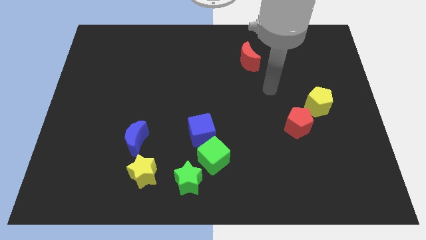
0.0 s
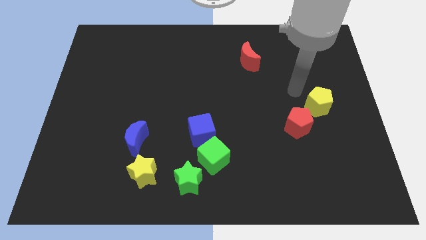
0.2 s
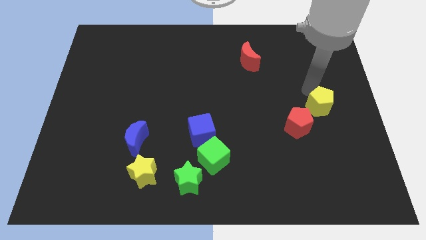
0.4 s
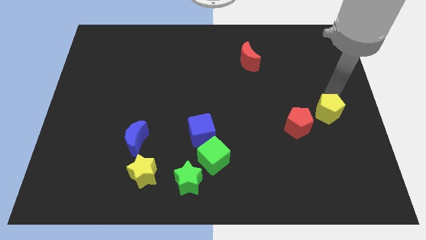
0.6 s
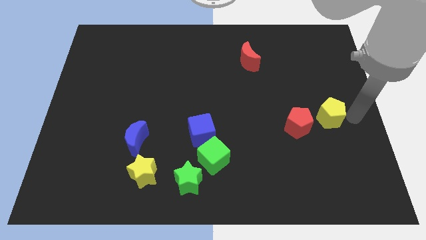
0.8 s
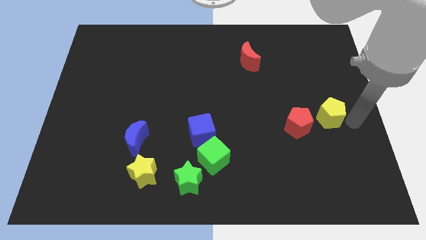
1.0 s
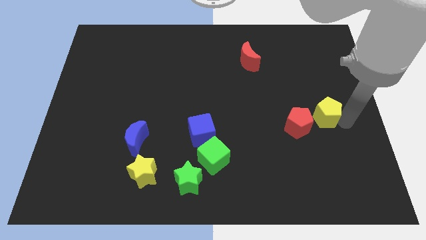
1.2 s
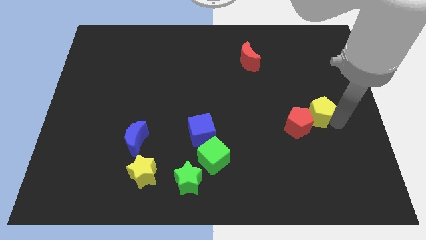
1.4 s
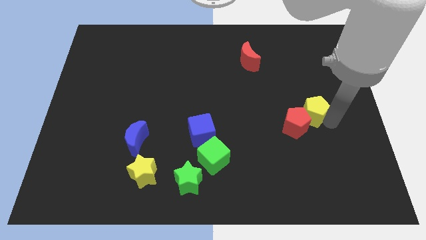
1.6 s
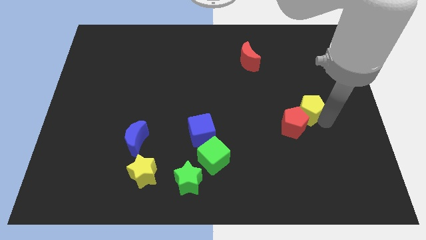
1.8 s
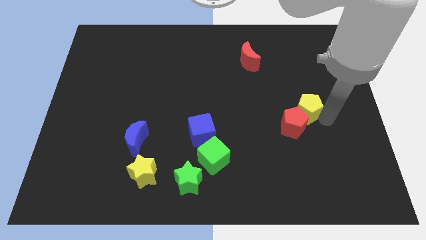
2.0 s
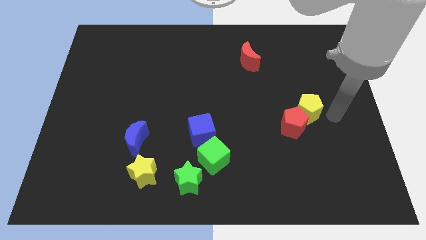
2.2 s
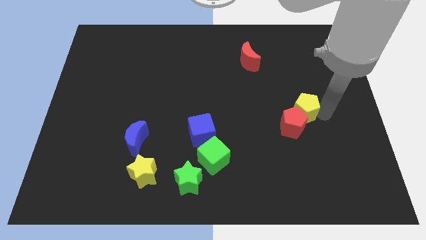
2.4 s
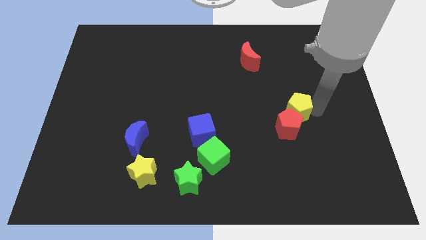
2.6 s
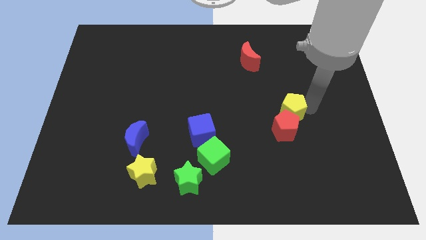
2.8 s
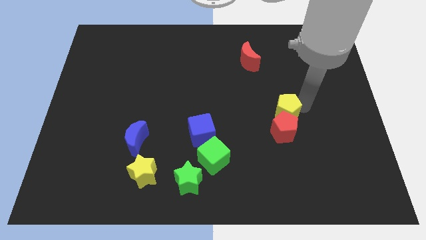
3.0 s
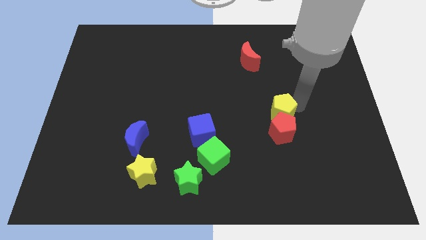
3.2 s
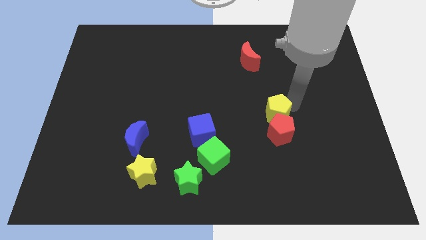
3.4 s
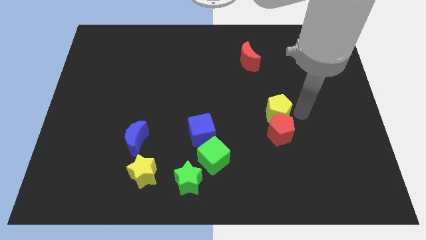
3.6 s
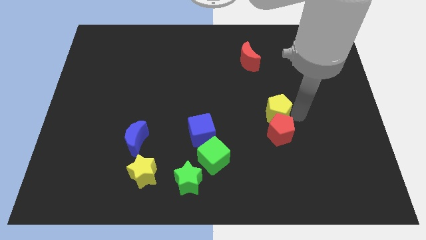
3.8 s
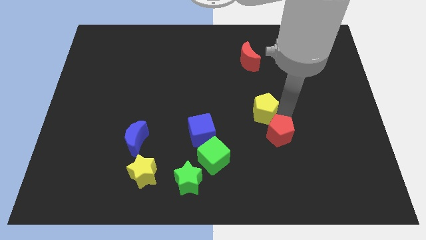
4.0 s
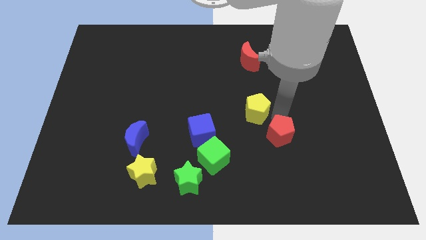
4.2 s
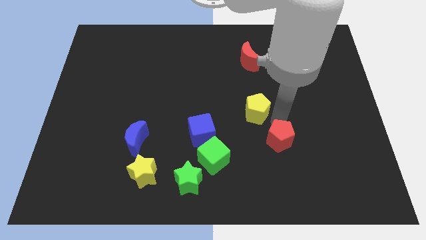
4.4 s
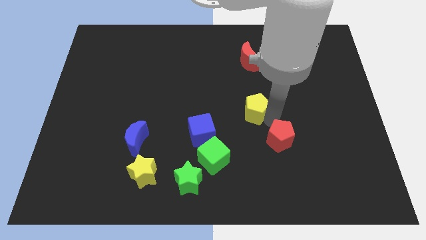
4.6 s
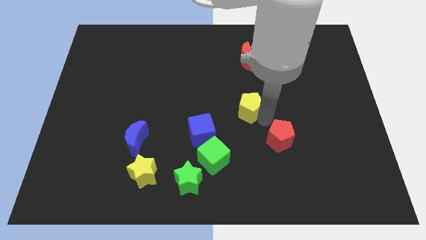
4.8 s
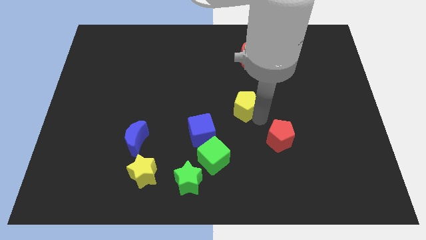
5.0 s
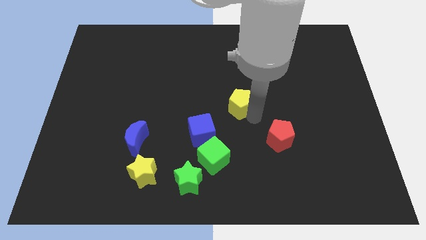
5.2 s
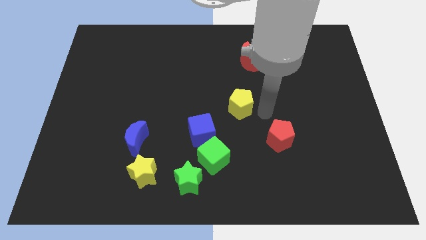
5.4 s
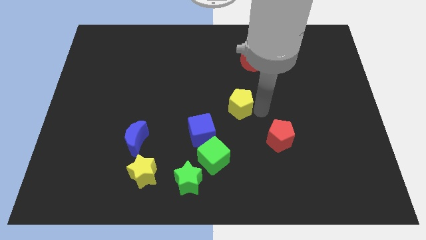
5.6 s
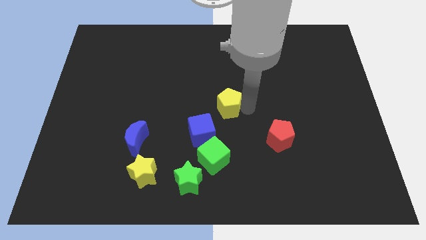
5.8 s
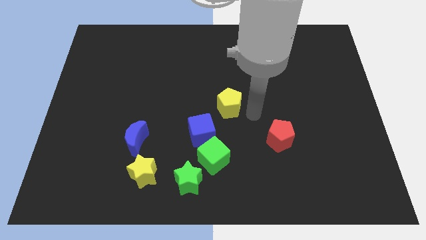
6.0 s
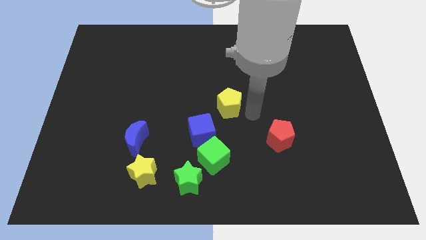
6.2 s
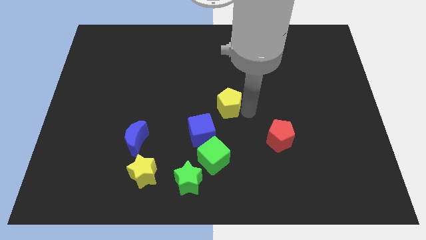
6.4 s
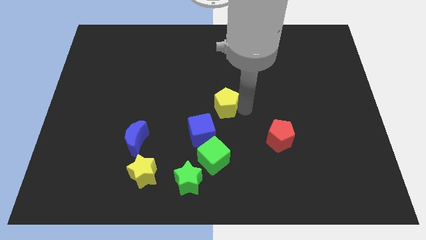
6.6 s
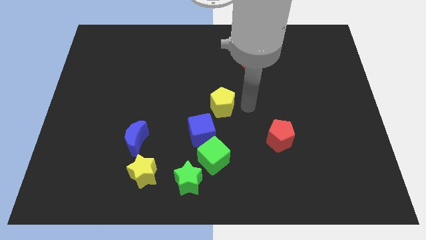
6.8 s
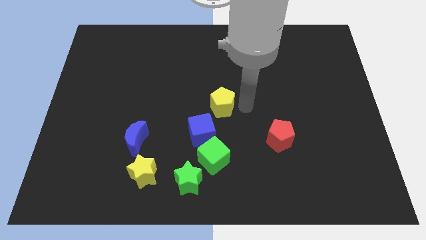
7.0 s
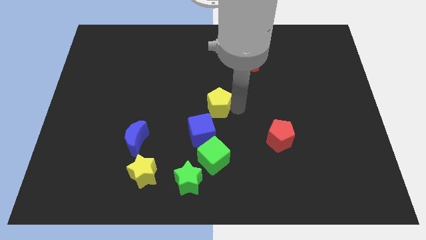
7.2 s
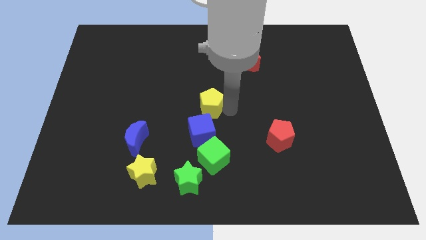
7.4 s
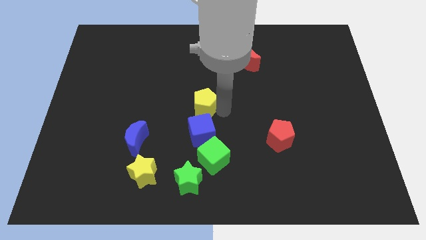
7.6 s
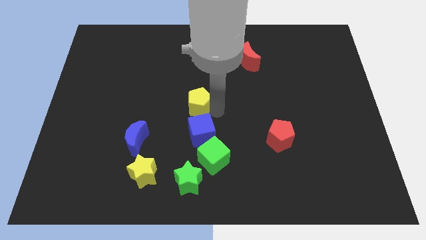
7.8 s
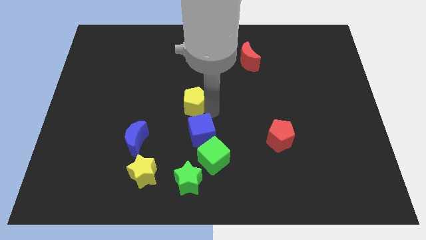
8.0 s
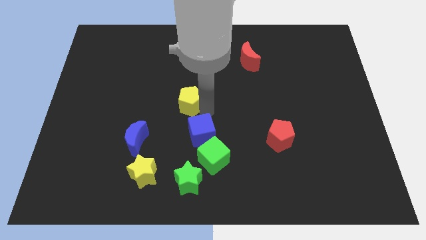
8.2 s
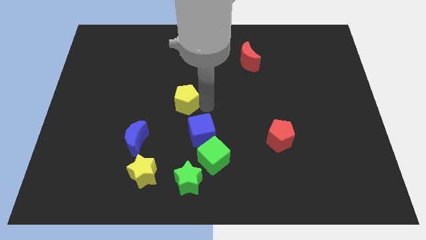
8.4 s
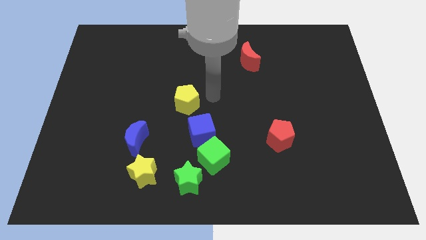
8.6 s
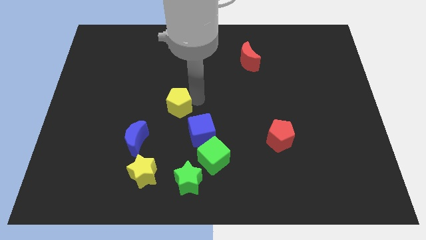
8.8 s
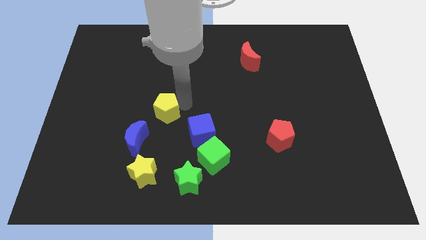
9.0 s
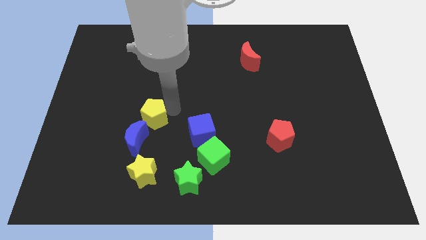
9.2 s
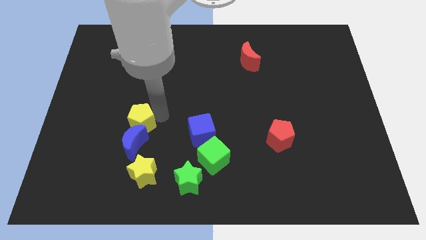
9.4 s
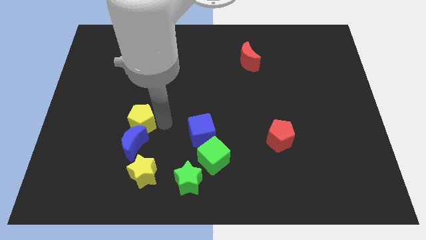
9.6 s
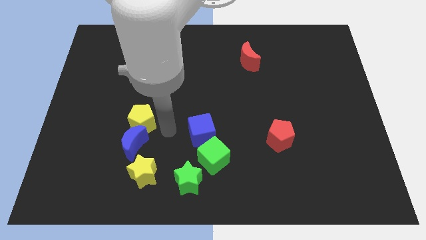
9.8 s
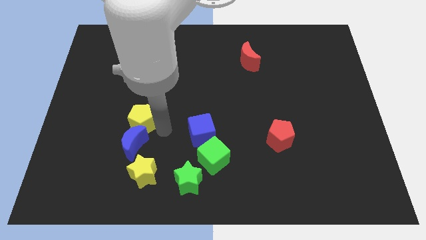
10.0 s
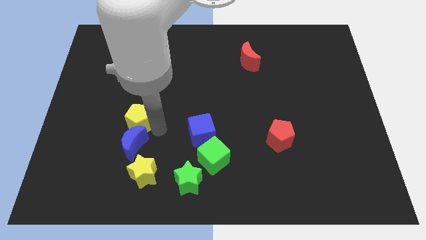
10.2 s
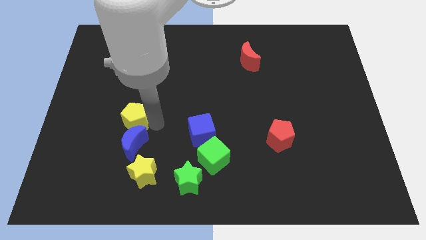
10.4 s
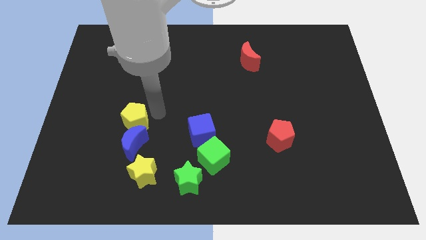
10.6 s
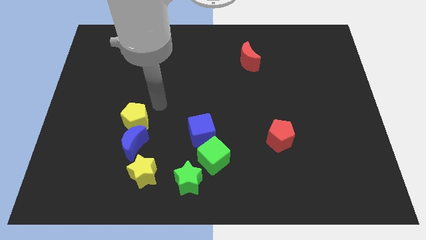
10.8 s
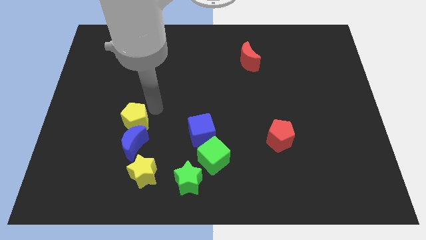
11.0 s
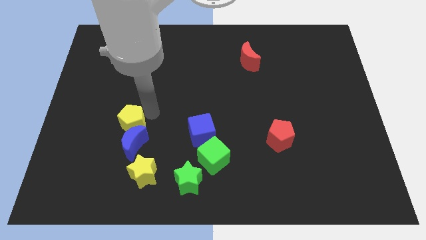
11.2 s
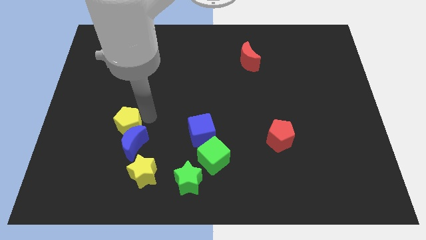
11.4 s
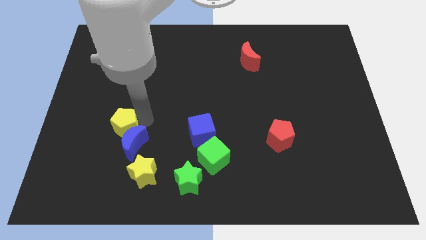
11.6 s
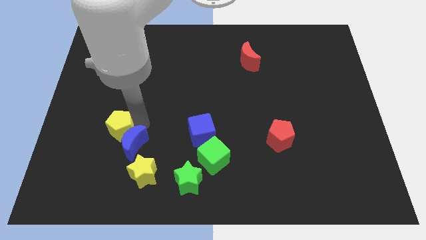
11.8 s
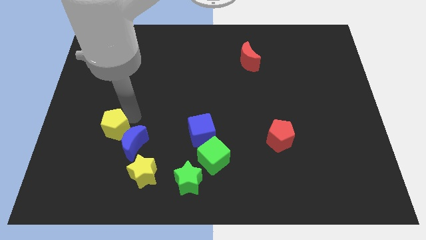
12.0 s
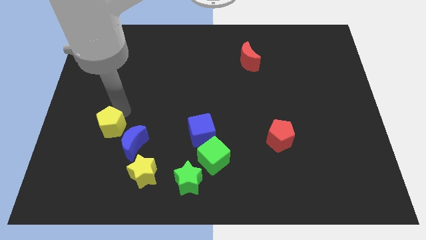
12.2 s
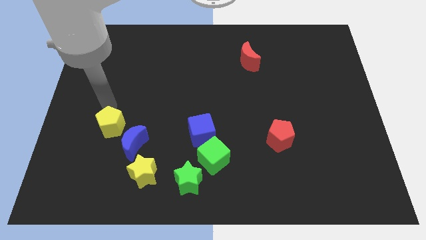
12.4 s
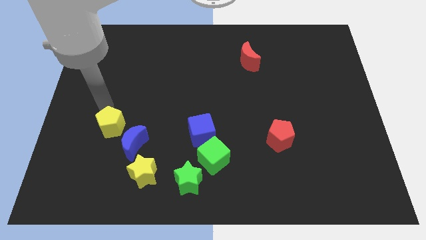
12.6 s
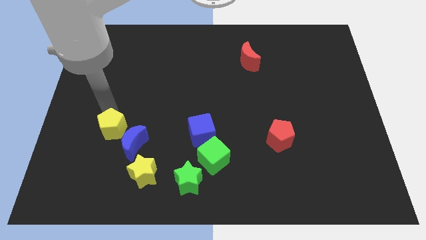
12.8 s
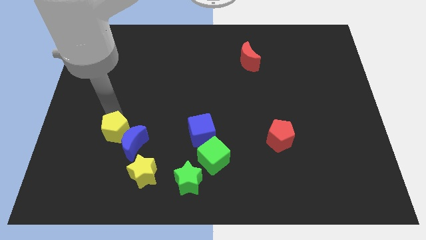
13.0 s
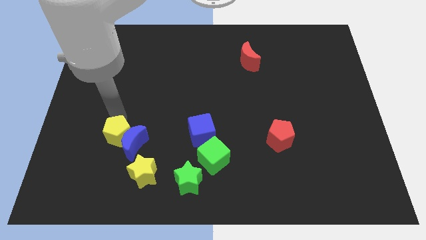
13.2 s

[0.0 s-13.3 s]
move the yellow pentagon diagonally up and to the left of the yellow star

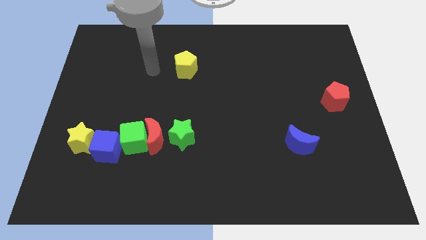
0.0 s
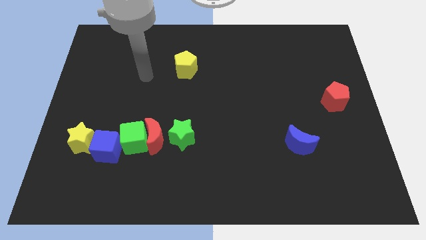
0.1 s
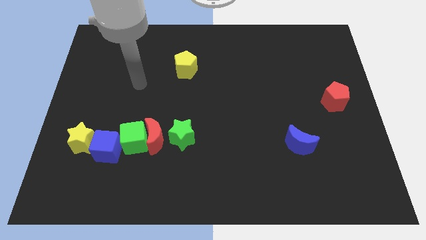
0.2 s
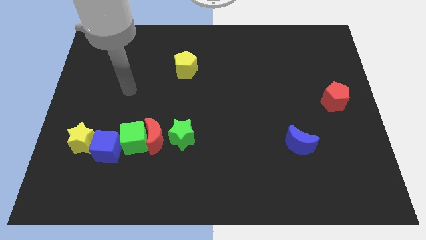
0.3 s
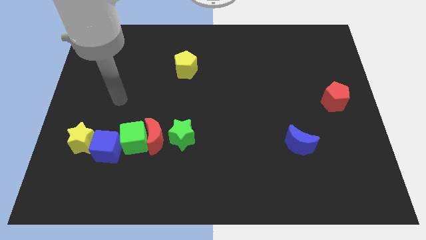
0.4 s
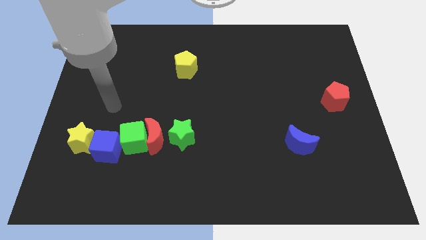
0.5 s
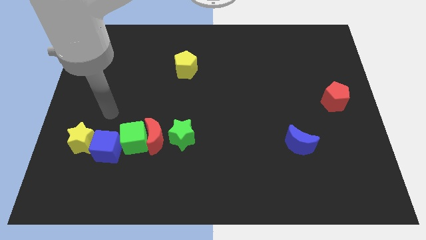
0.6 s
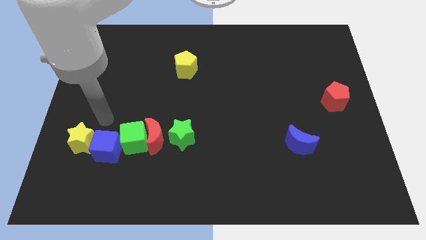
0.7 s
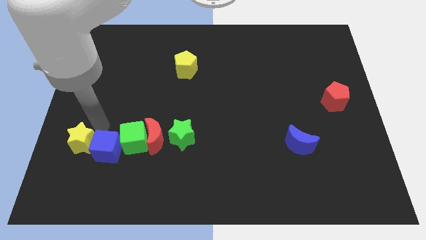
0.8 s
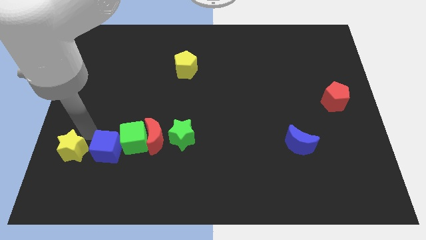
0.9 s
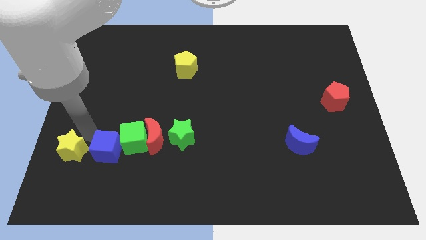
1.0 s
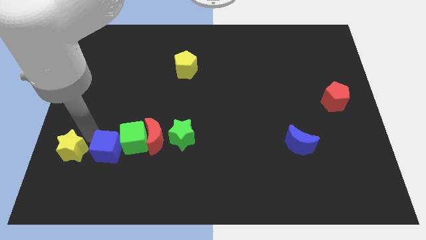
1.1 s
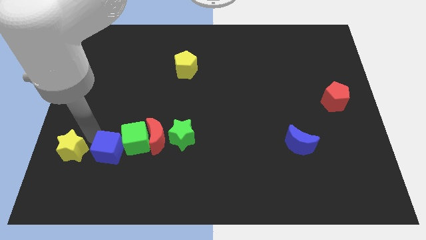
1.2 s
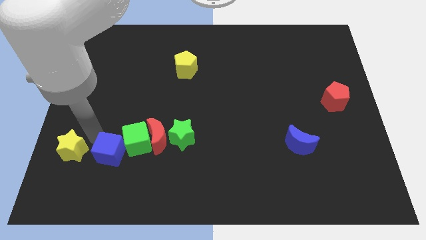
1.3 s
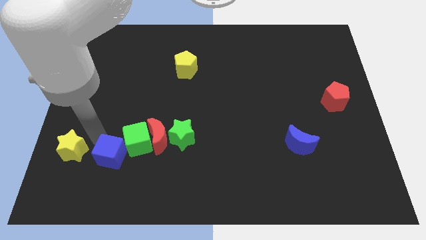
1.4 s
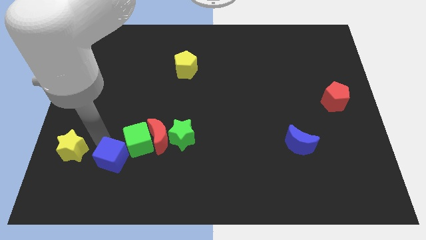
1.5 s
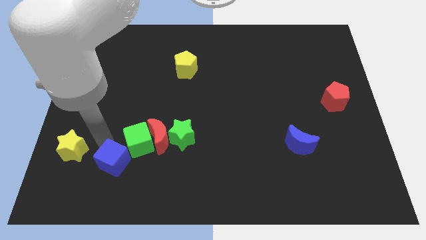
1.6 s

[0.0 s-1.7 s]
put the blue cube below the green cube
